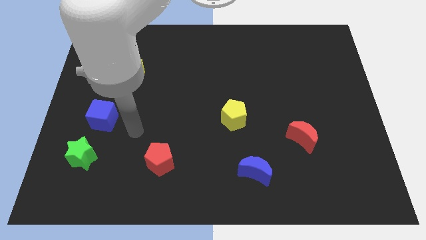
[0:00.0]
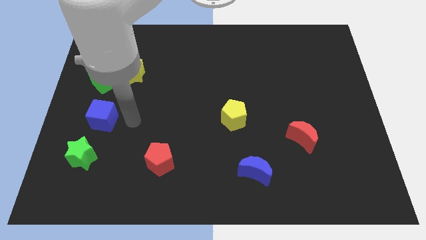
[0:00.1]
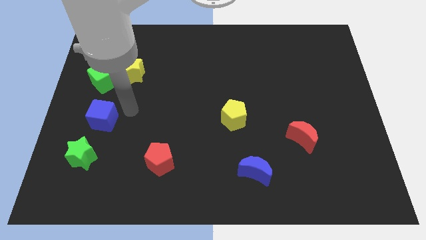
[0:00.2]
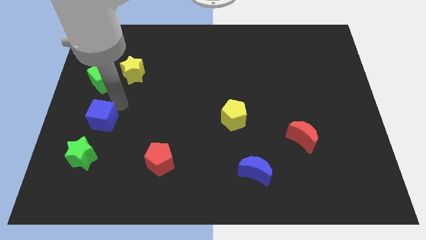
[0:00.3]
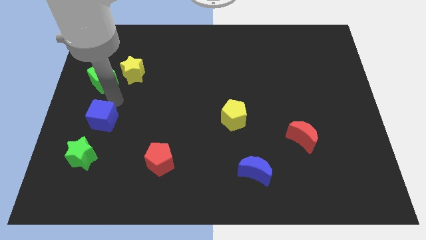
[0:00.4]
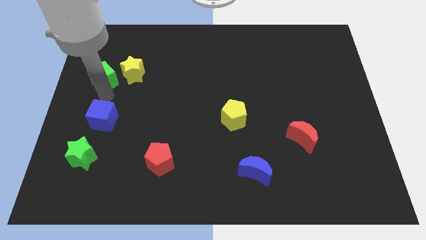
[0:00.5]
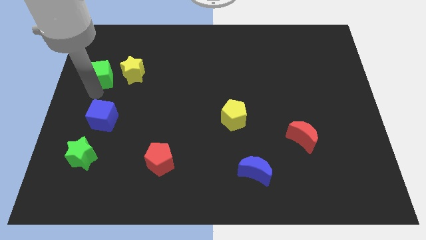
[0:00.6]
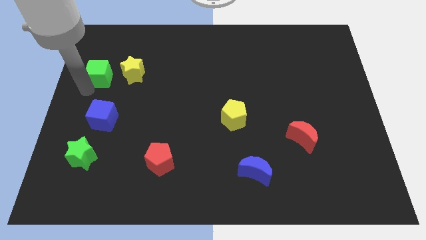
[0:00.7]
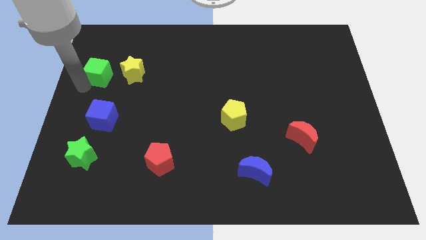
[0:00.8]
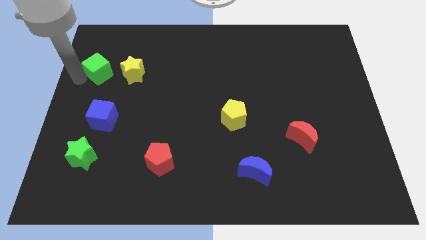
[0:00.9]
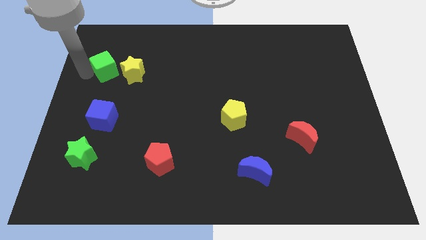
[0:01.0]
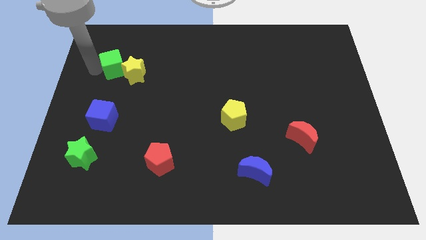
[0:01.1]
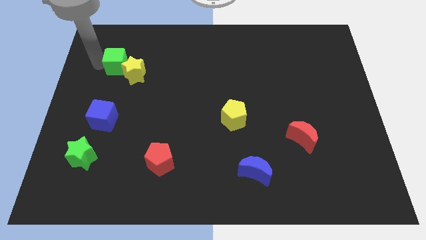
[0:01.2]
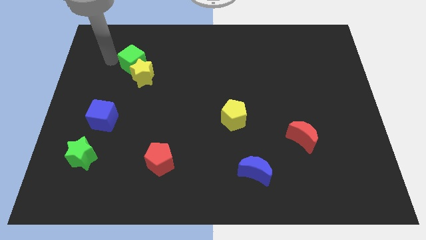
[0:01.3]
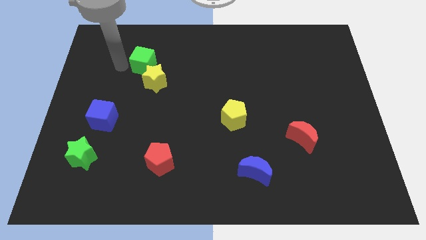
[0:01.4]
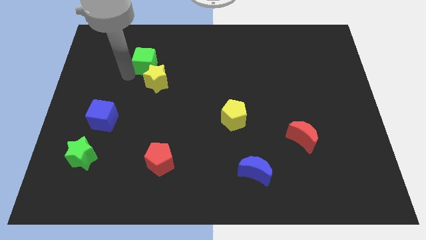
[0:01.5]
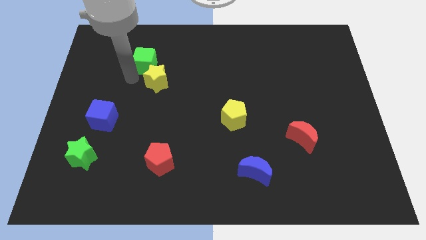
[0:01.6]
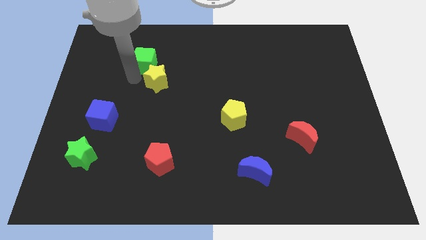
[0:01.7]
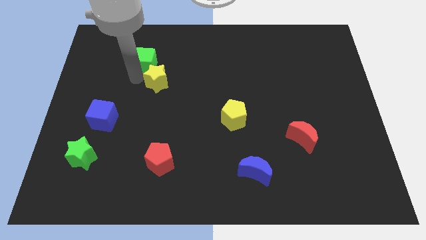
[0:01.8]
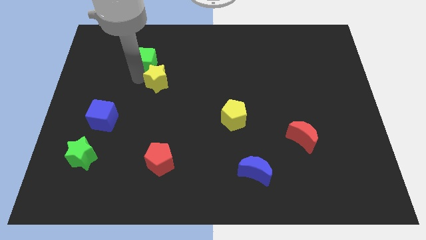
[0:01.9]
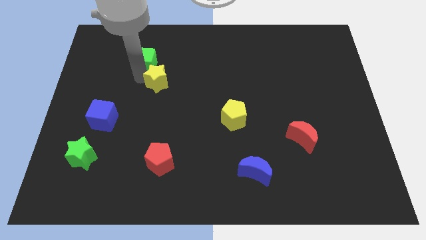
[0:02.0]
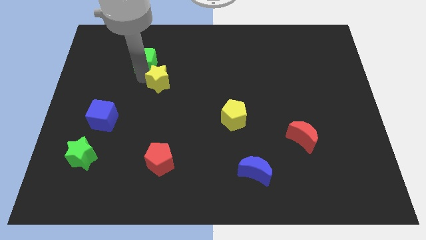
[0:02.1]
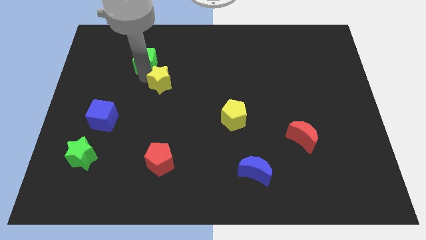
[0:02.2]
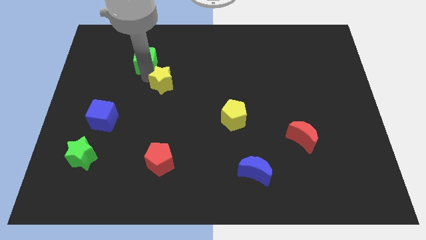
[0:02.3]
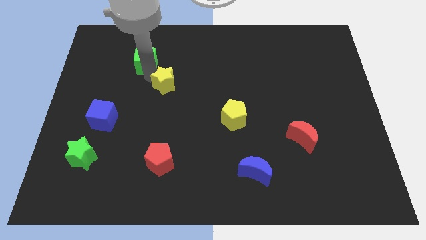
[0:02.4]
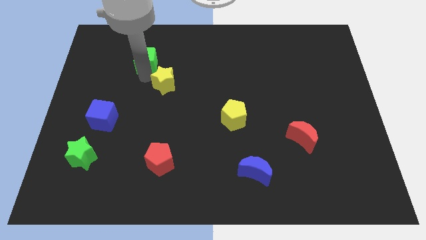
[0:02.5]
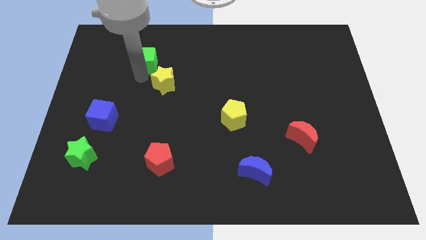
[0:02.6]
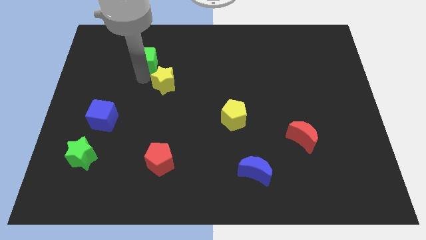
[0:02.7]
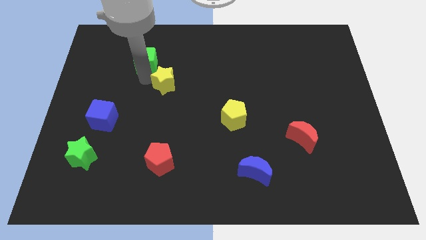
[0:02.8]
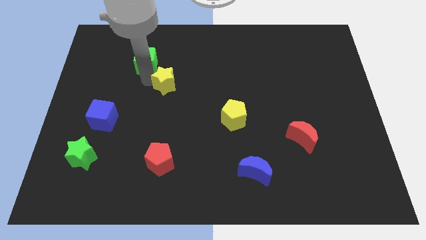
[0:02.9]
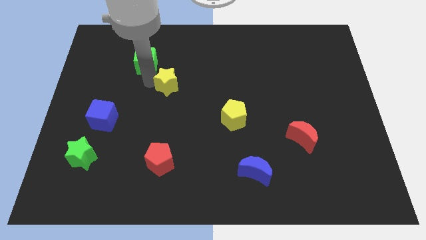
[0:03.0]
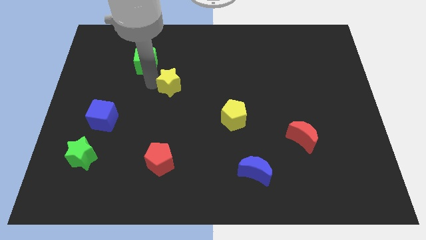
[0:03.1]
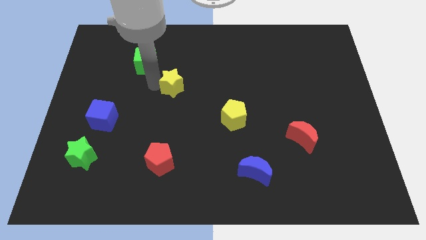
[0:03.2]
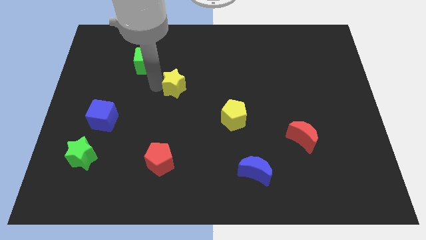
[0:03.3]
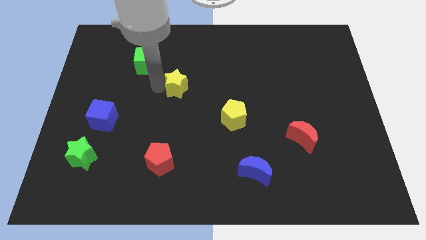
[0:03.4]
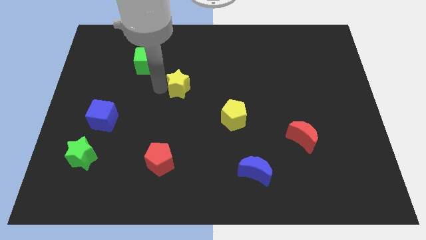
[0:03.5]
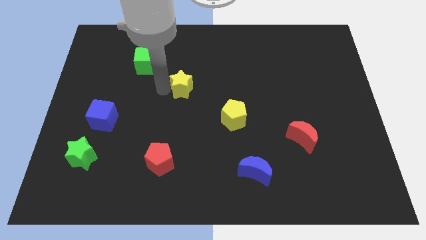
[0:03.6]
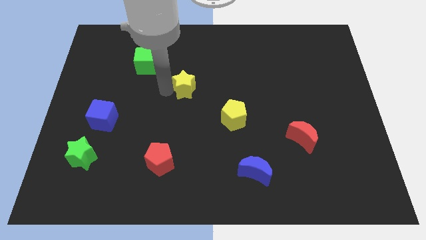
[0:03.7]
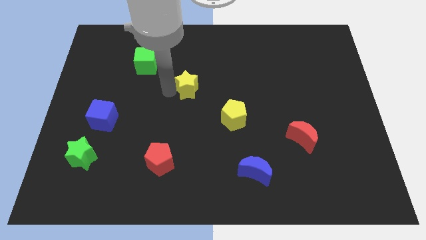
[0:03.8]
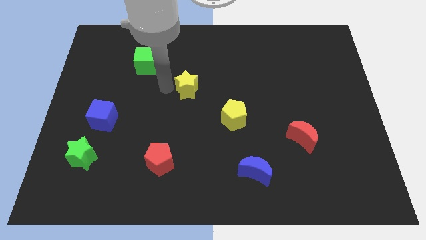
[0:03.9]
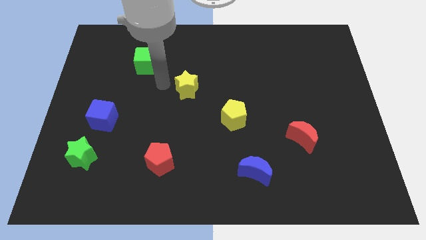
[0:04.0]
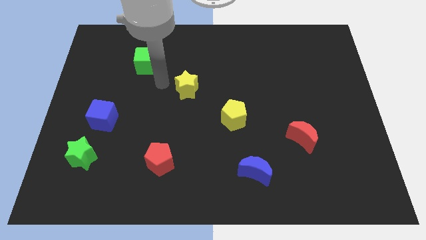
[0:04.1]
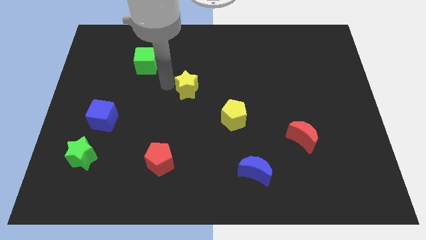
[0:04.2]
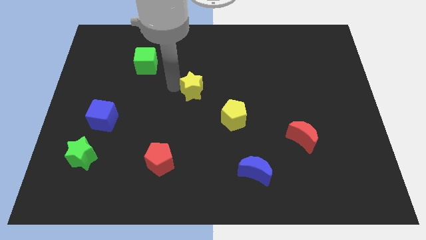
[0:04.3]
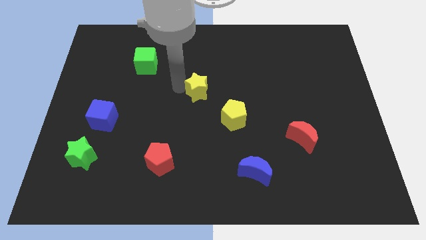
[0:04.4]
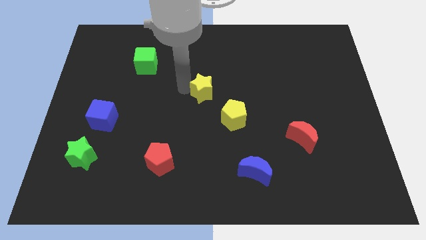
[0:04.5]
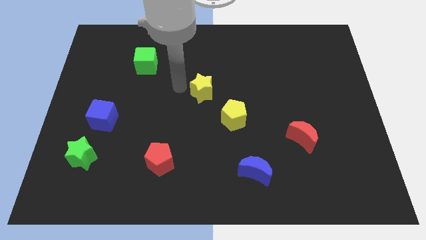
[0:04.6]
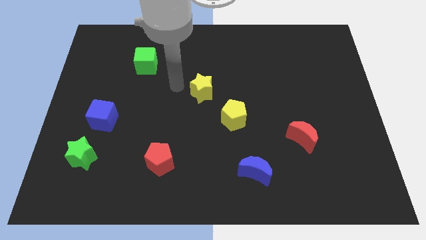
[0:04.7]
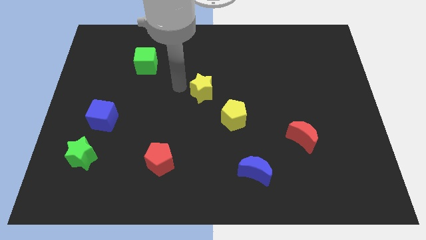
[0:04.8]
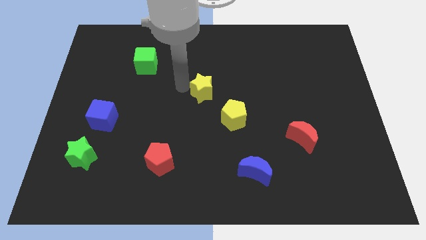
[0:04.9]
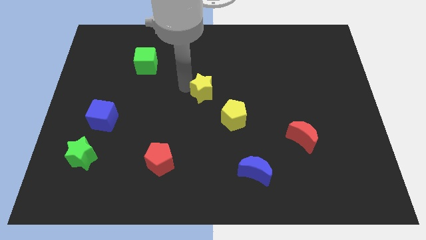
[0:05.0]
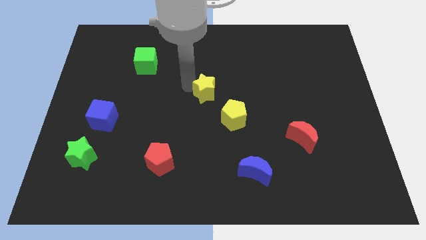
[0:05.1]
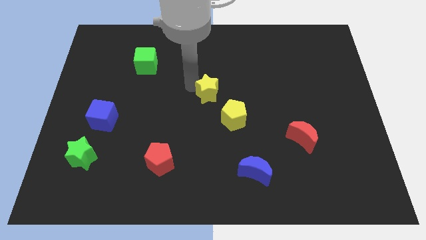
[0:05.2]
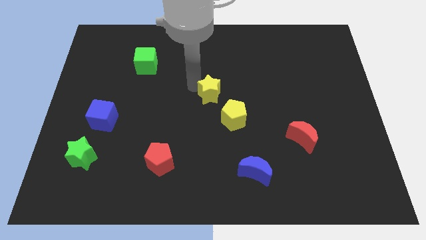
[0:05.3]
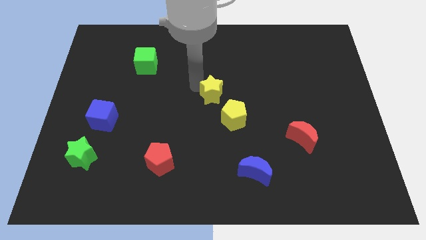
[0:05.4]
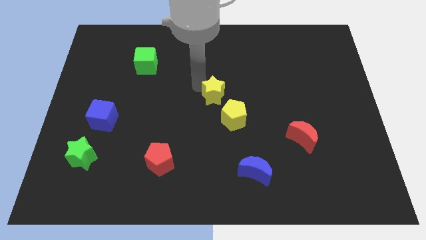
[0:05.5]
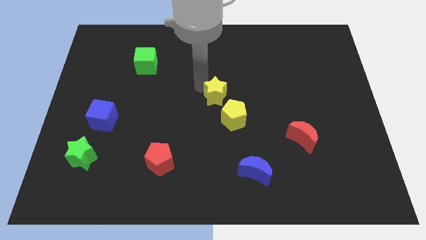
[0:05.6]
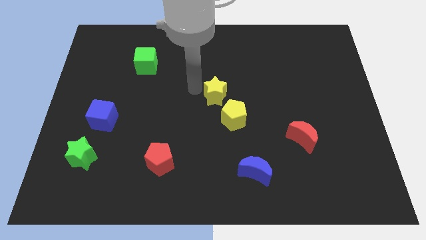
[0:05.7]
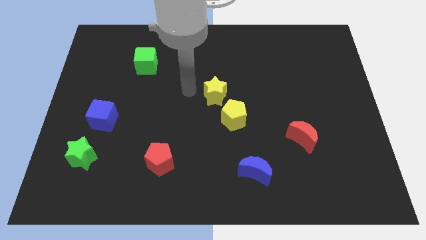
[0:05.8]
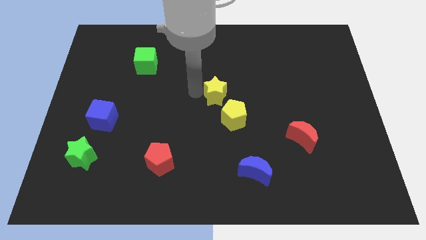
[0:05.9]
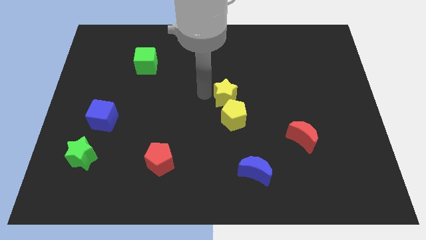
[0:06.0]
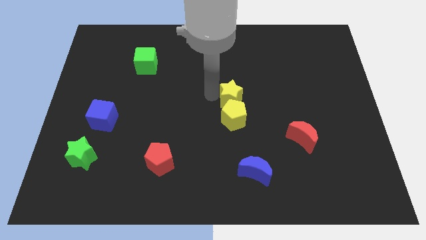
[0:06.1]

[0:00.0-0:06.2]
put the yellow star to the top right of the yellow pentagon

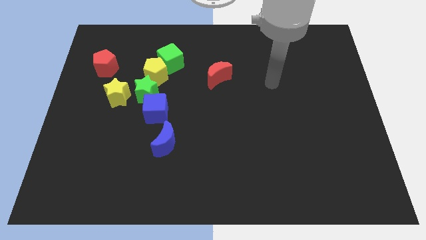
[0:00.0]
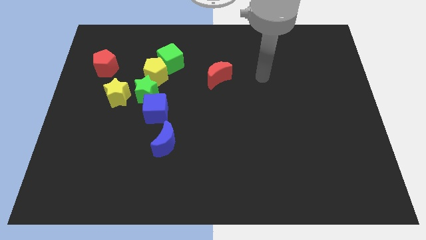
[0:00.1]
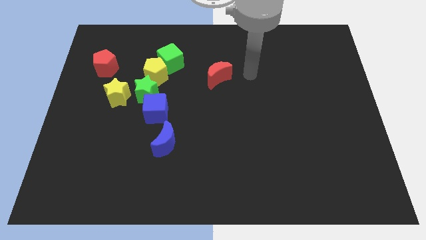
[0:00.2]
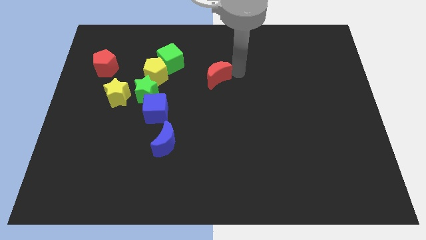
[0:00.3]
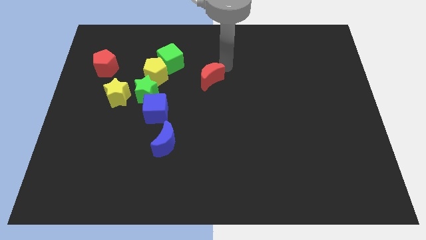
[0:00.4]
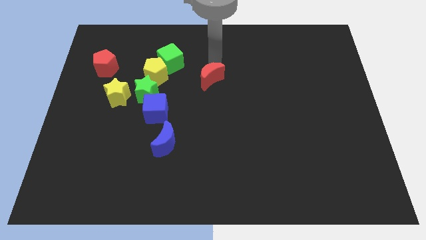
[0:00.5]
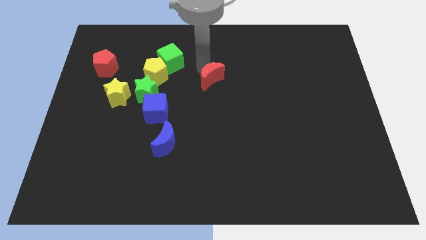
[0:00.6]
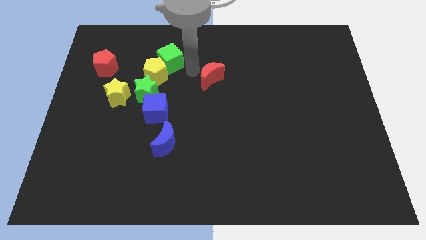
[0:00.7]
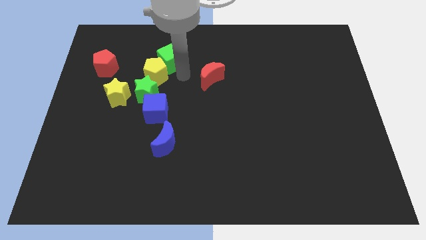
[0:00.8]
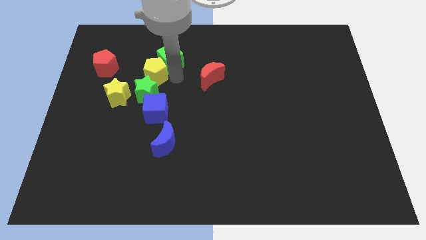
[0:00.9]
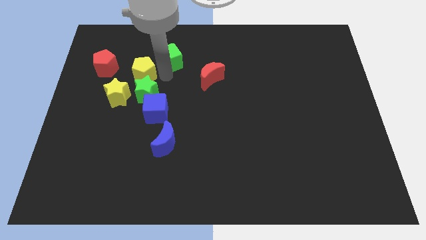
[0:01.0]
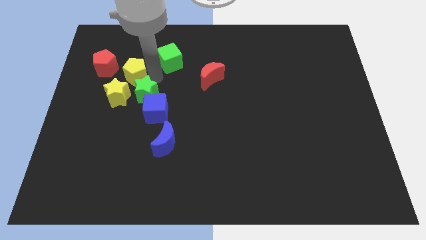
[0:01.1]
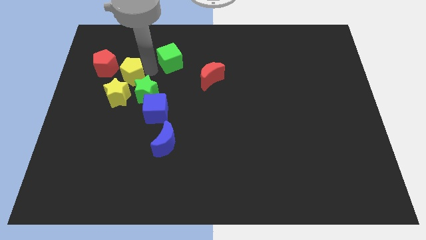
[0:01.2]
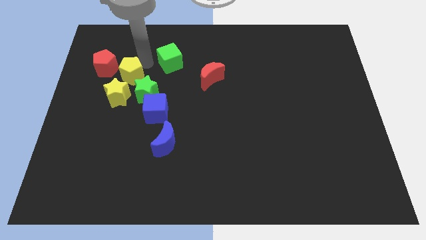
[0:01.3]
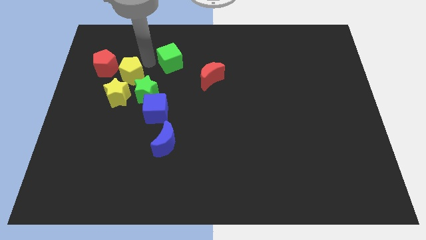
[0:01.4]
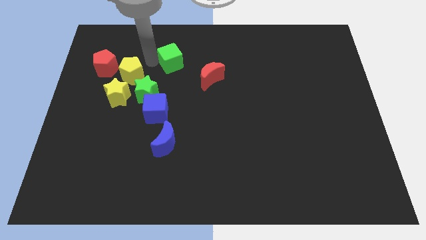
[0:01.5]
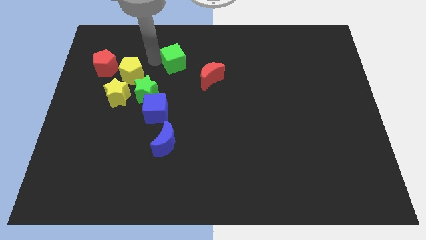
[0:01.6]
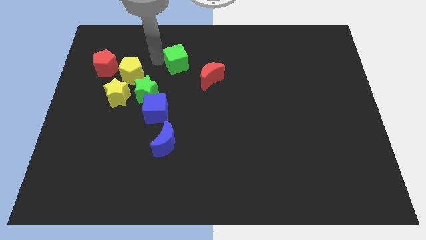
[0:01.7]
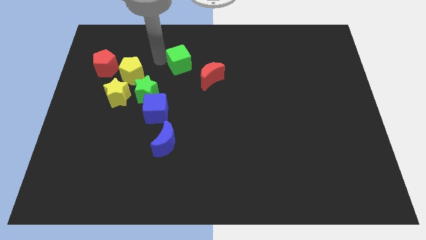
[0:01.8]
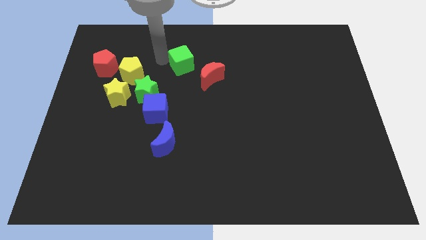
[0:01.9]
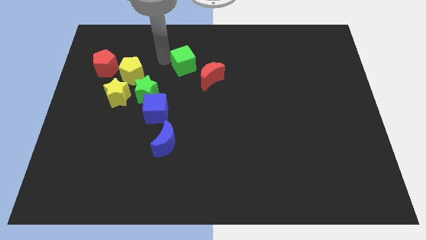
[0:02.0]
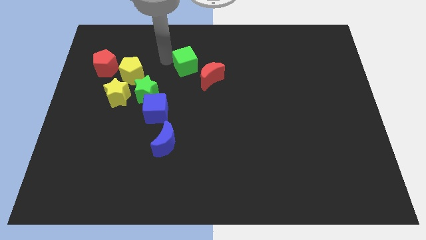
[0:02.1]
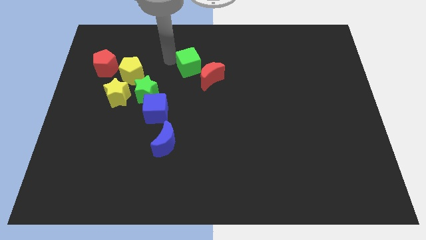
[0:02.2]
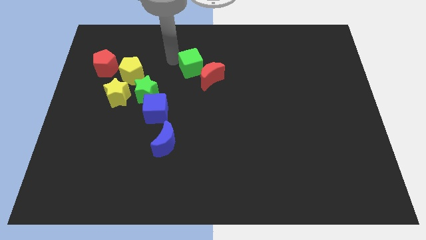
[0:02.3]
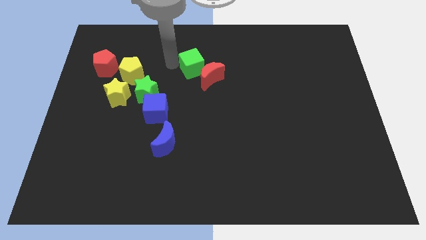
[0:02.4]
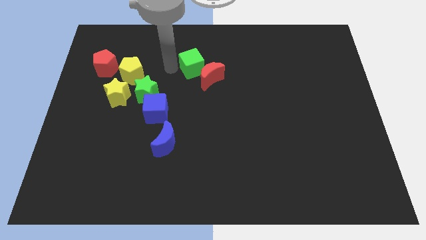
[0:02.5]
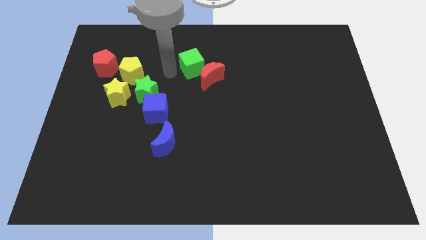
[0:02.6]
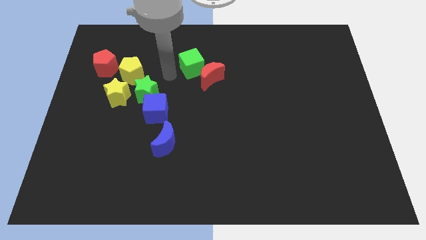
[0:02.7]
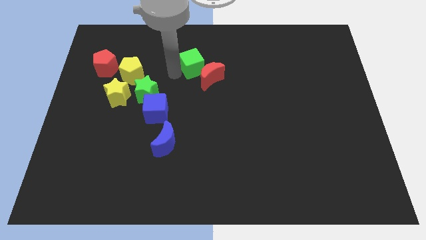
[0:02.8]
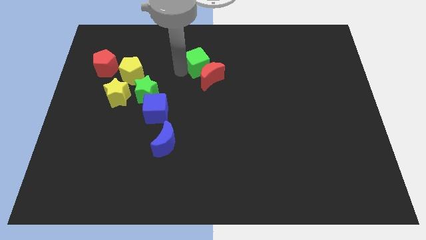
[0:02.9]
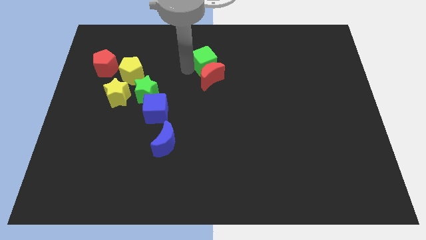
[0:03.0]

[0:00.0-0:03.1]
put the green cube diagonally up and to the right of the red moon
